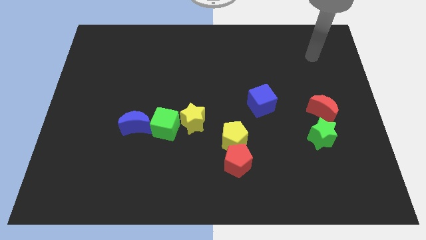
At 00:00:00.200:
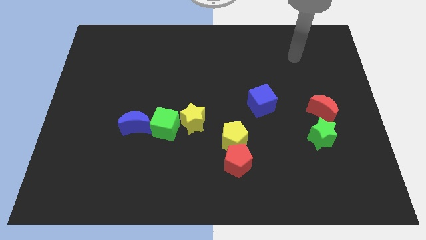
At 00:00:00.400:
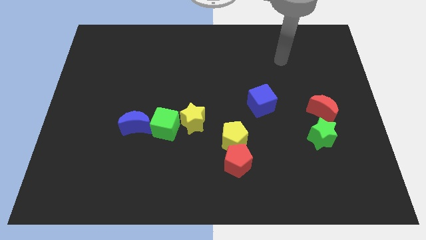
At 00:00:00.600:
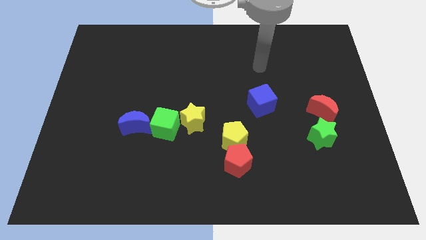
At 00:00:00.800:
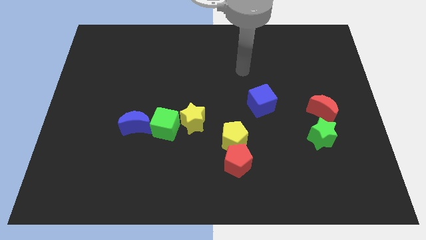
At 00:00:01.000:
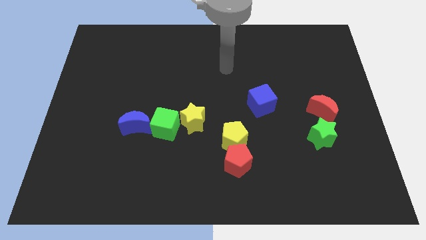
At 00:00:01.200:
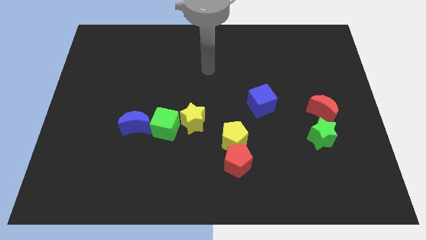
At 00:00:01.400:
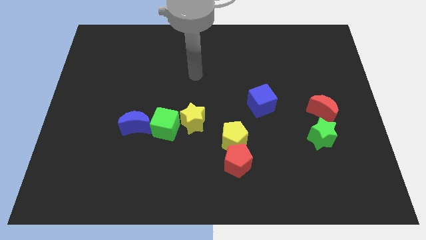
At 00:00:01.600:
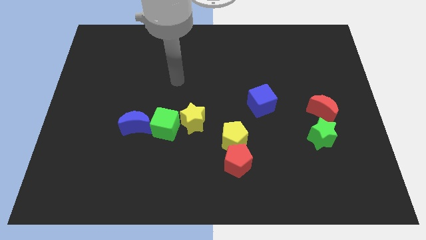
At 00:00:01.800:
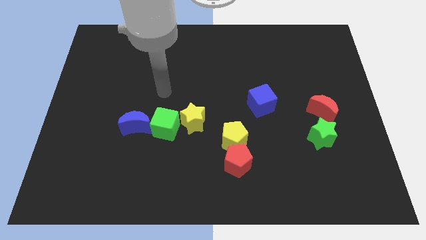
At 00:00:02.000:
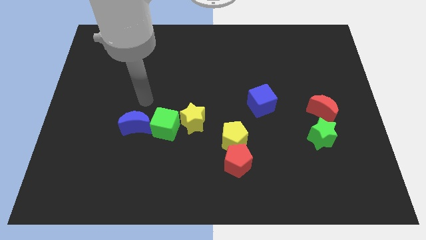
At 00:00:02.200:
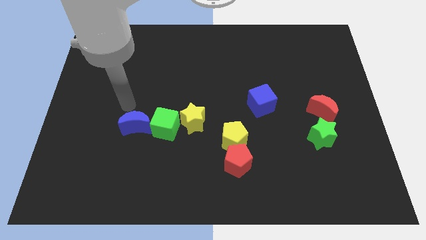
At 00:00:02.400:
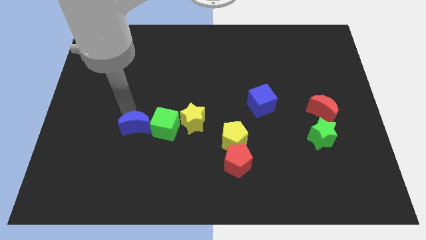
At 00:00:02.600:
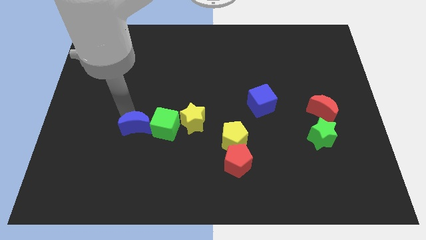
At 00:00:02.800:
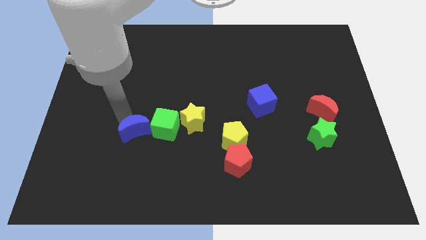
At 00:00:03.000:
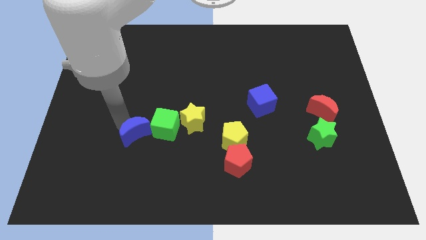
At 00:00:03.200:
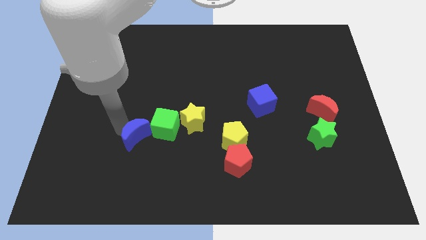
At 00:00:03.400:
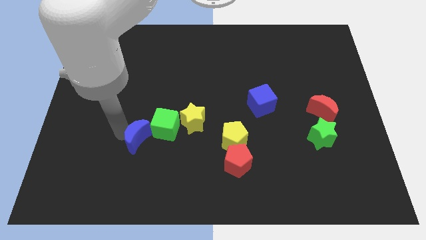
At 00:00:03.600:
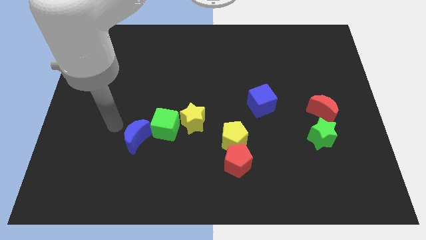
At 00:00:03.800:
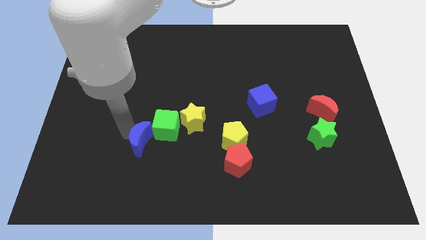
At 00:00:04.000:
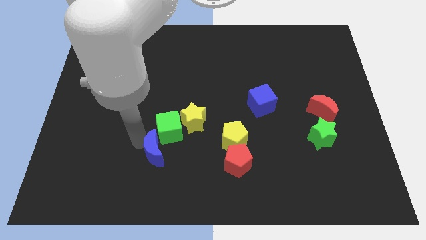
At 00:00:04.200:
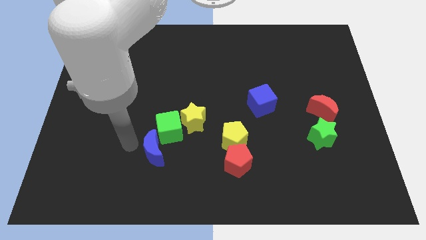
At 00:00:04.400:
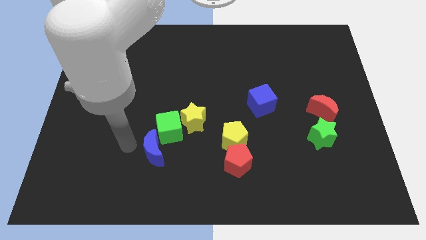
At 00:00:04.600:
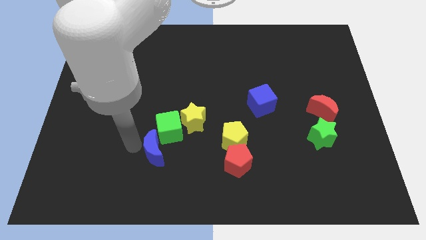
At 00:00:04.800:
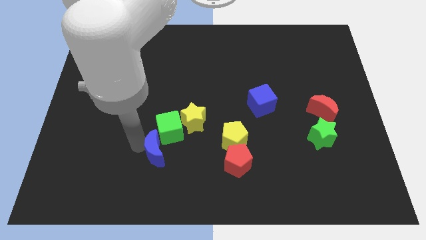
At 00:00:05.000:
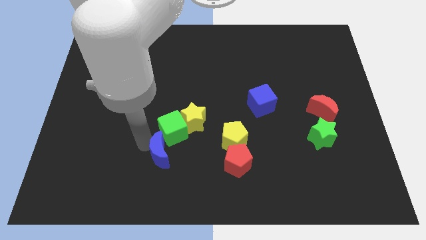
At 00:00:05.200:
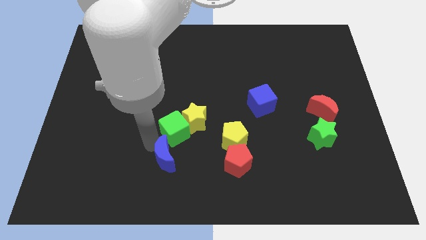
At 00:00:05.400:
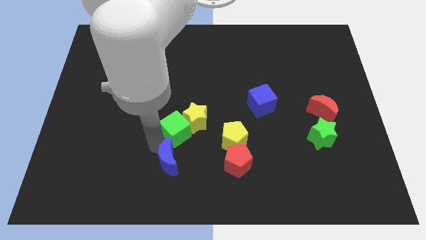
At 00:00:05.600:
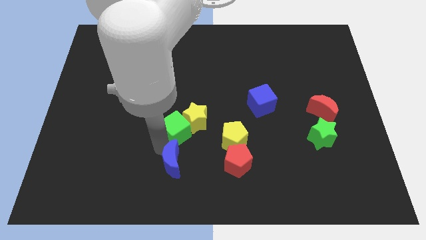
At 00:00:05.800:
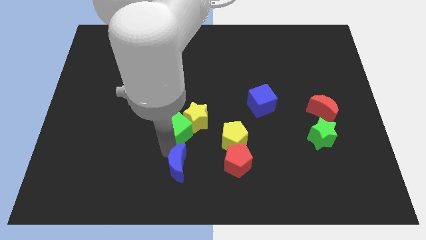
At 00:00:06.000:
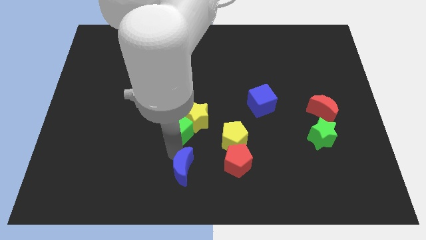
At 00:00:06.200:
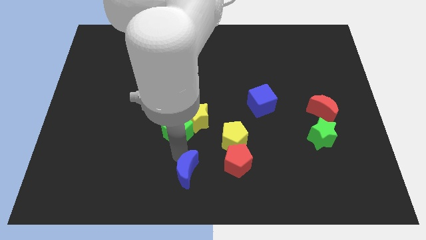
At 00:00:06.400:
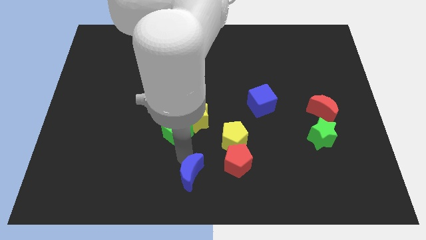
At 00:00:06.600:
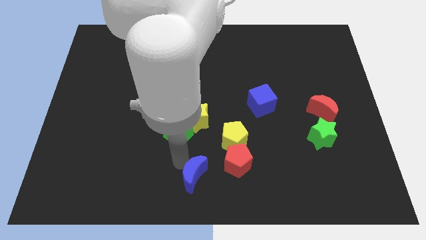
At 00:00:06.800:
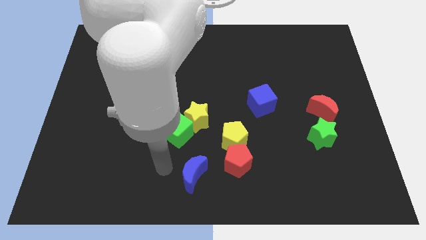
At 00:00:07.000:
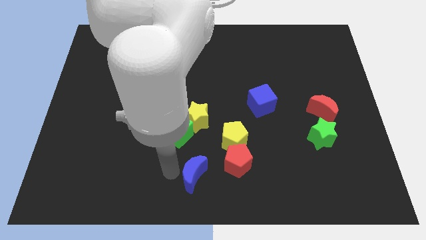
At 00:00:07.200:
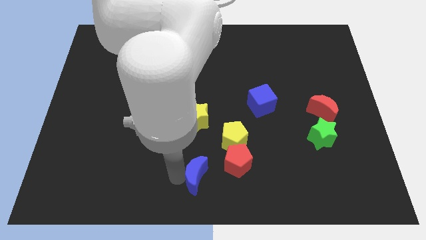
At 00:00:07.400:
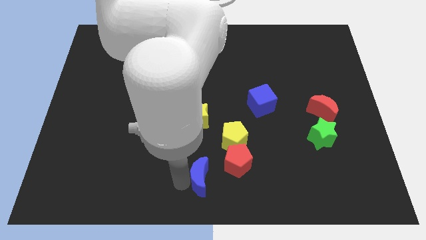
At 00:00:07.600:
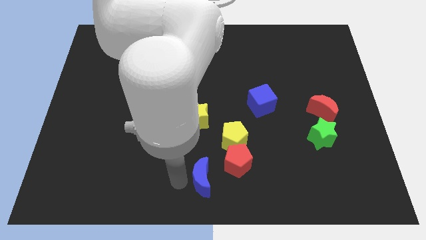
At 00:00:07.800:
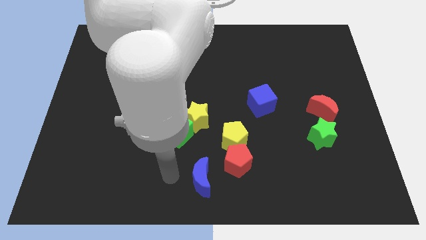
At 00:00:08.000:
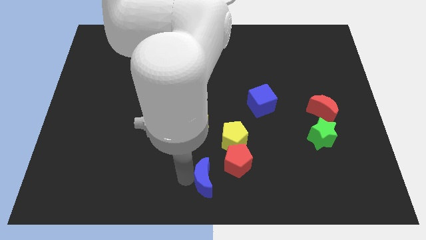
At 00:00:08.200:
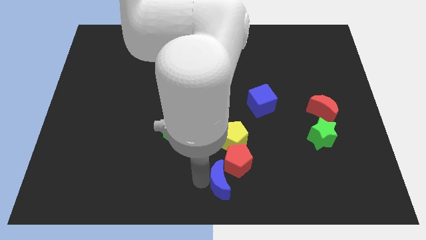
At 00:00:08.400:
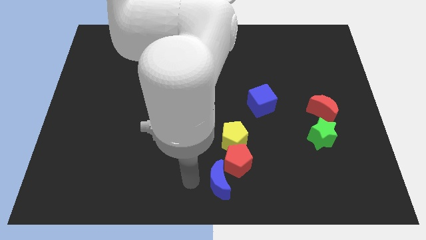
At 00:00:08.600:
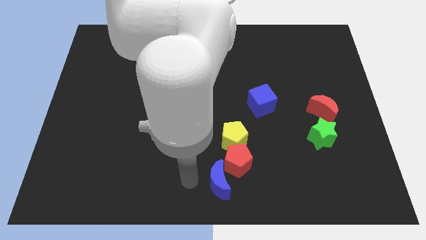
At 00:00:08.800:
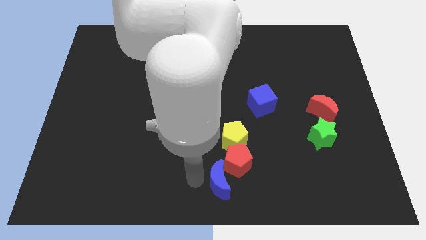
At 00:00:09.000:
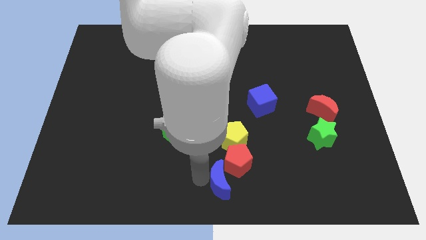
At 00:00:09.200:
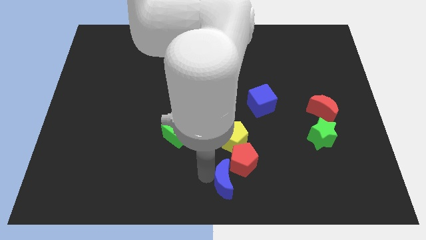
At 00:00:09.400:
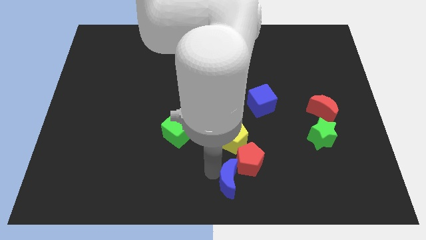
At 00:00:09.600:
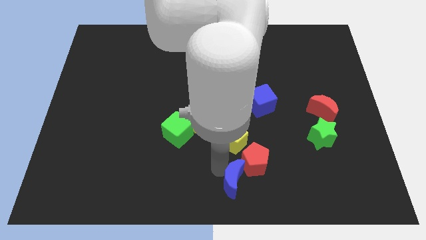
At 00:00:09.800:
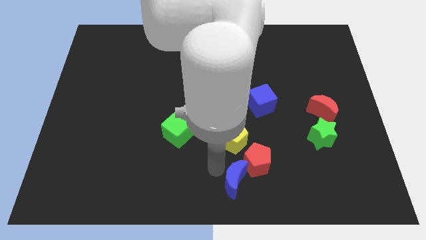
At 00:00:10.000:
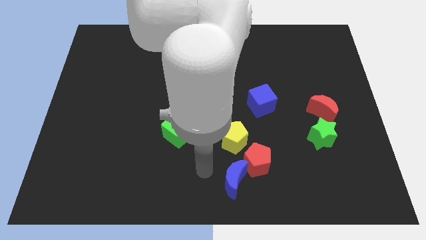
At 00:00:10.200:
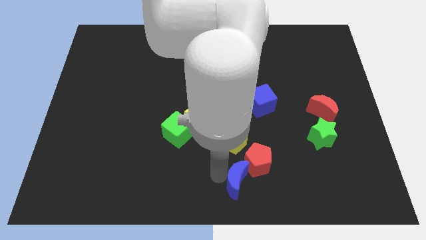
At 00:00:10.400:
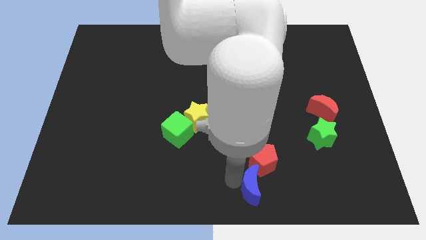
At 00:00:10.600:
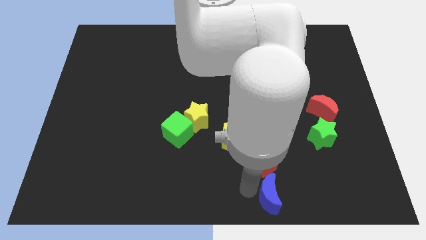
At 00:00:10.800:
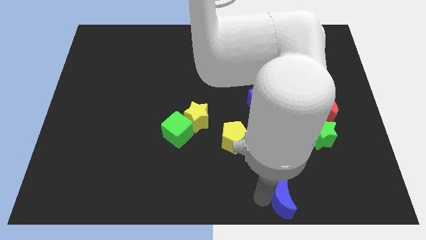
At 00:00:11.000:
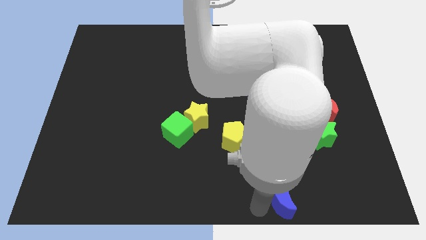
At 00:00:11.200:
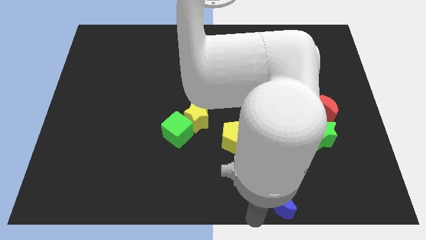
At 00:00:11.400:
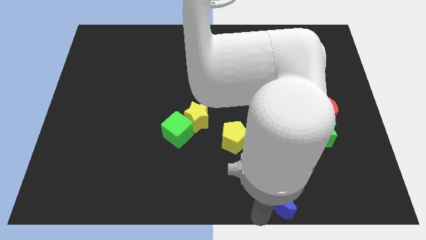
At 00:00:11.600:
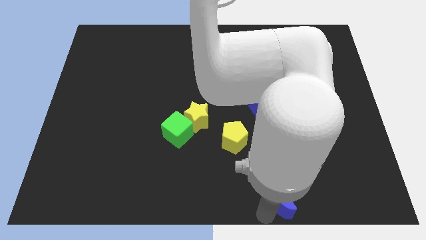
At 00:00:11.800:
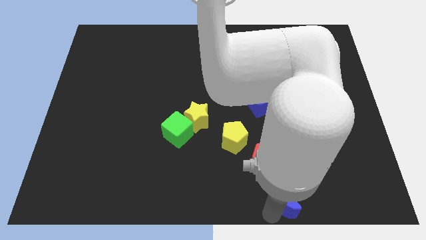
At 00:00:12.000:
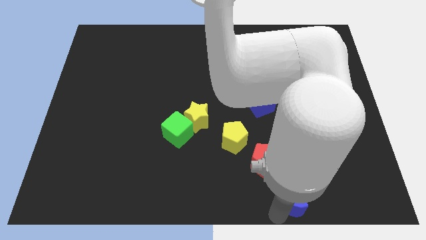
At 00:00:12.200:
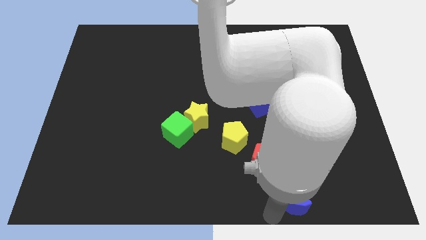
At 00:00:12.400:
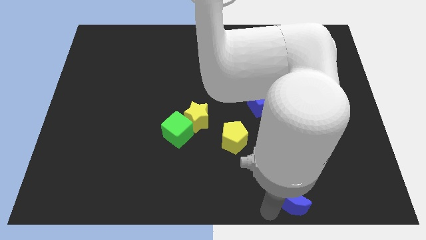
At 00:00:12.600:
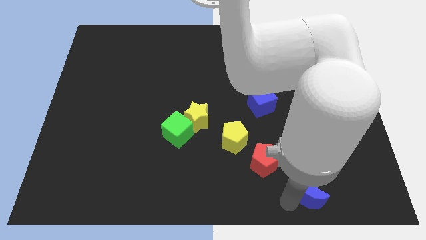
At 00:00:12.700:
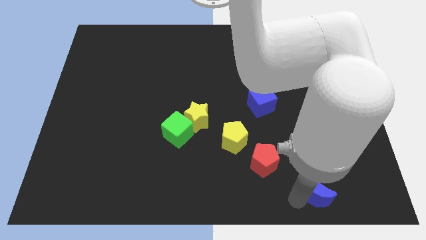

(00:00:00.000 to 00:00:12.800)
push the blue moon to the bottom side of the green star

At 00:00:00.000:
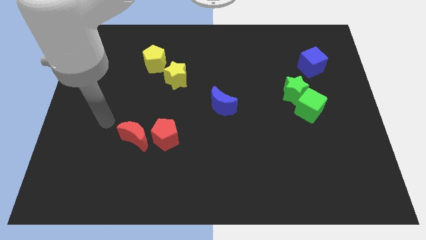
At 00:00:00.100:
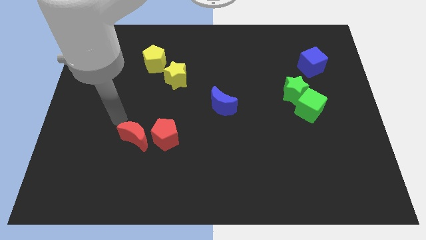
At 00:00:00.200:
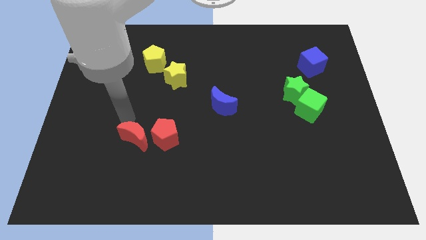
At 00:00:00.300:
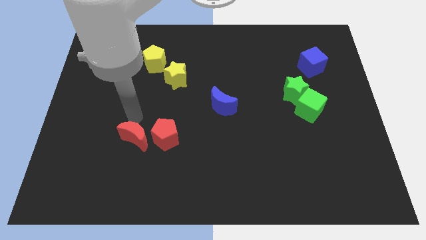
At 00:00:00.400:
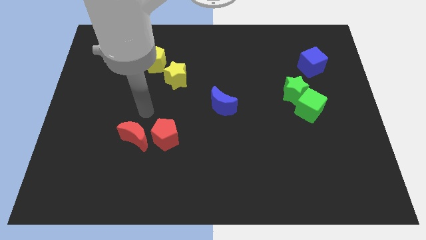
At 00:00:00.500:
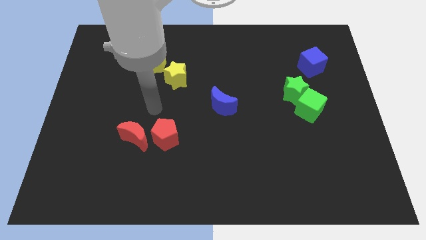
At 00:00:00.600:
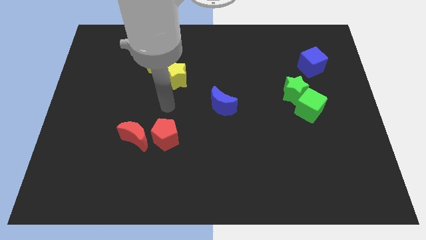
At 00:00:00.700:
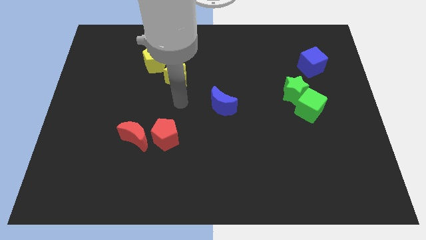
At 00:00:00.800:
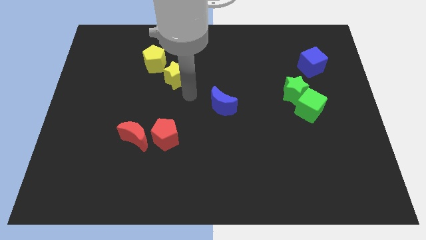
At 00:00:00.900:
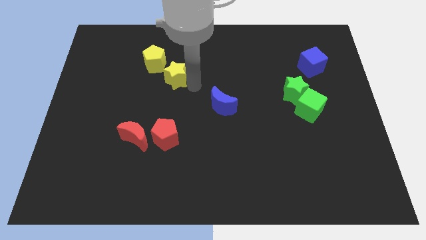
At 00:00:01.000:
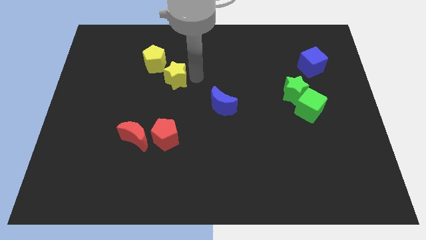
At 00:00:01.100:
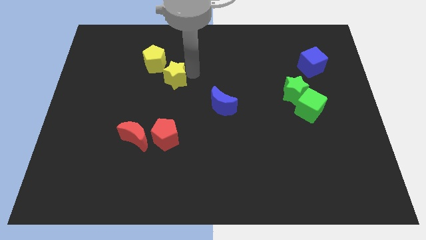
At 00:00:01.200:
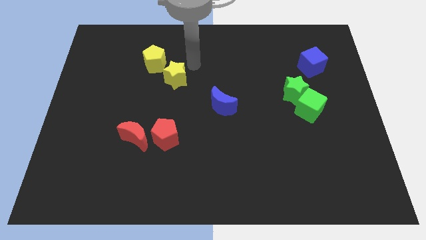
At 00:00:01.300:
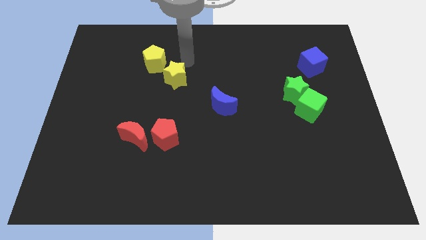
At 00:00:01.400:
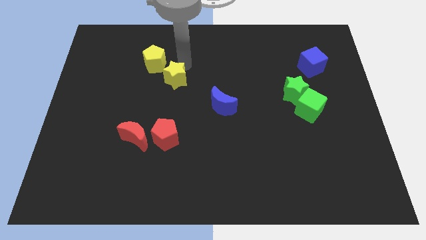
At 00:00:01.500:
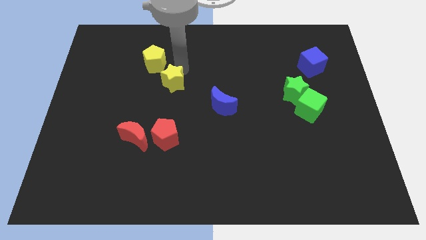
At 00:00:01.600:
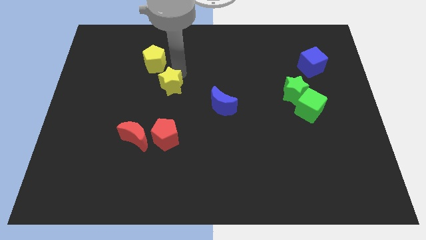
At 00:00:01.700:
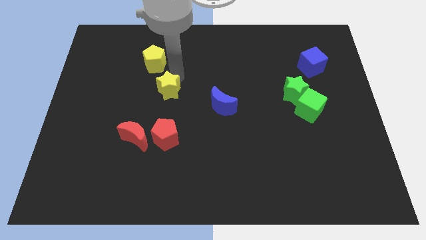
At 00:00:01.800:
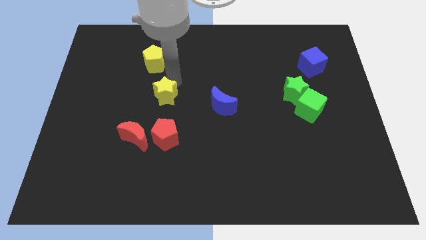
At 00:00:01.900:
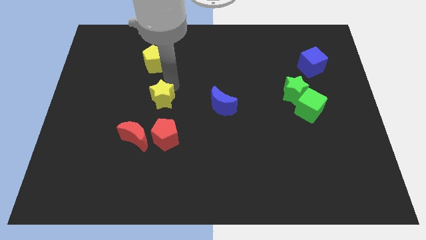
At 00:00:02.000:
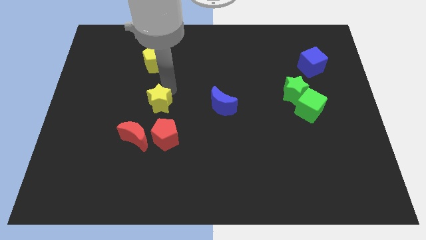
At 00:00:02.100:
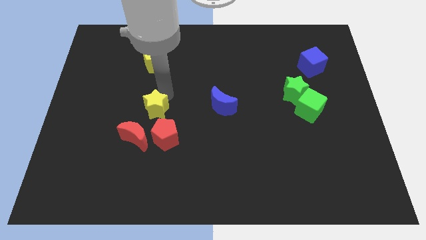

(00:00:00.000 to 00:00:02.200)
slide the yellow star to the top left of the red pentagon
